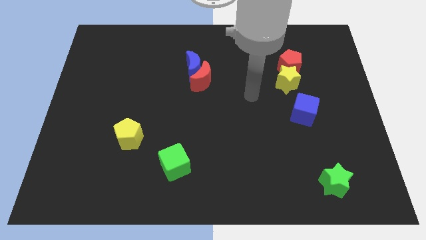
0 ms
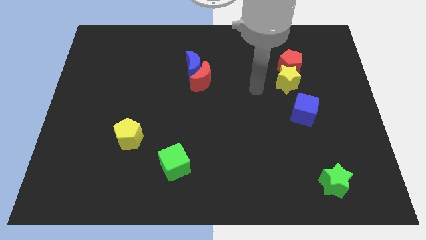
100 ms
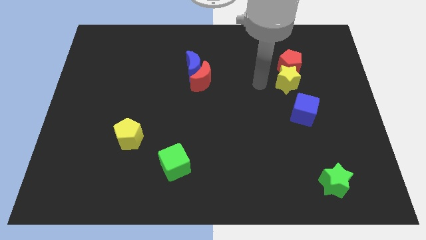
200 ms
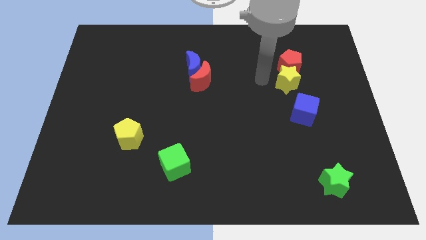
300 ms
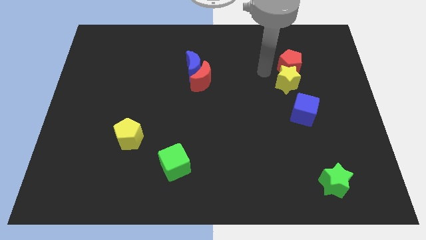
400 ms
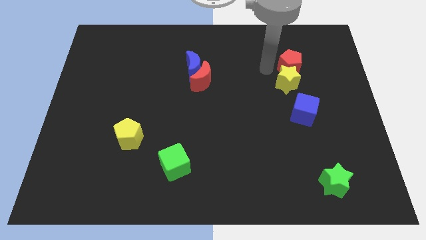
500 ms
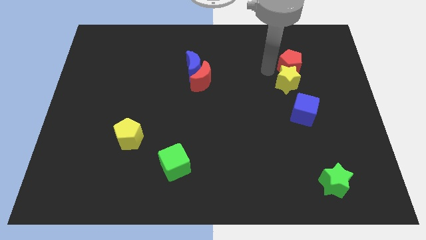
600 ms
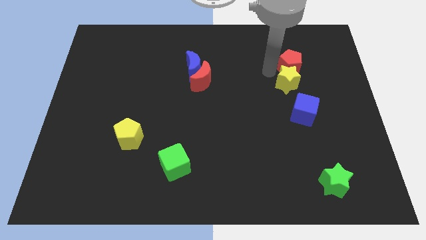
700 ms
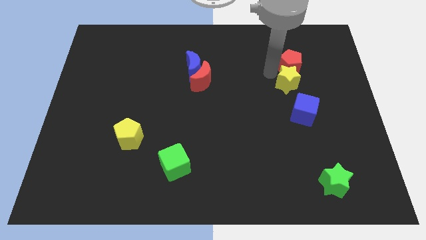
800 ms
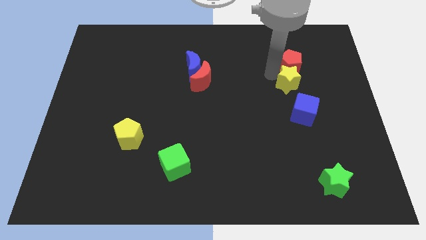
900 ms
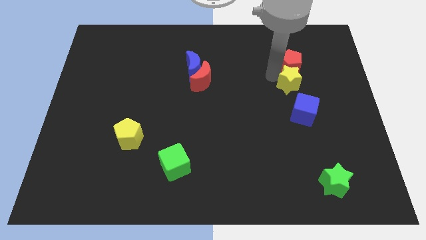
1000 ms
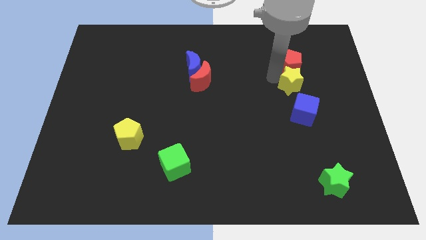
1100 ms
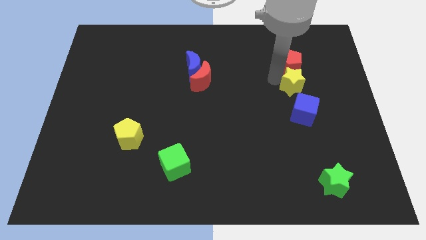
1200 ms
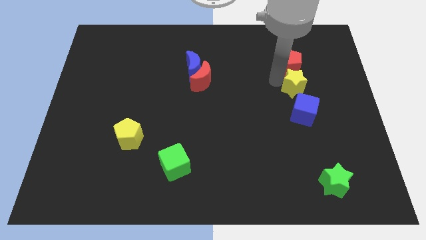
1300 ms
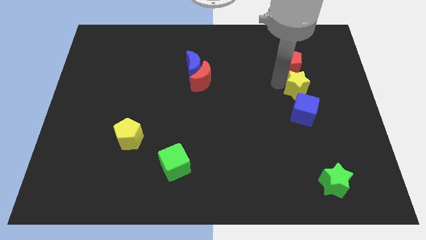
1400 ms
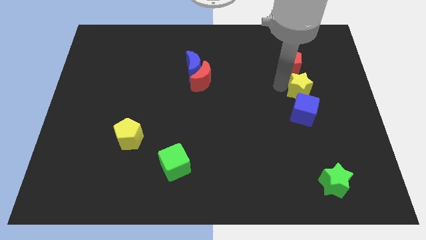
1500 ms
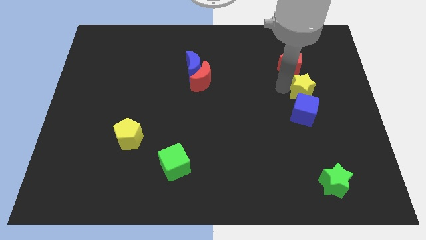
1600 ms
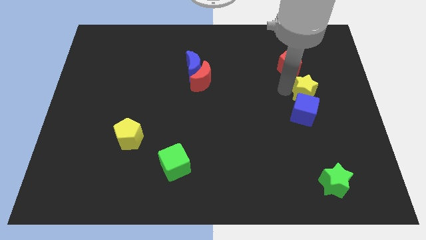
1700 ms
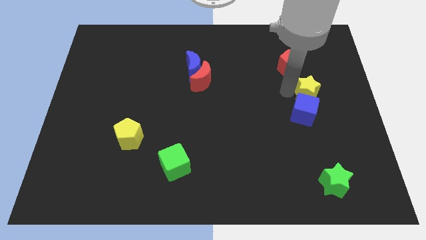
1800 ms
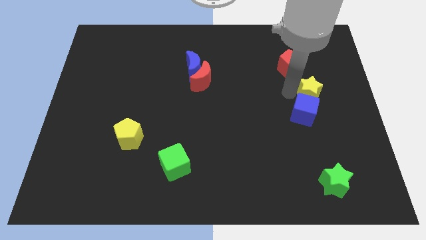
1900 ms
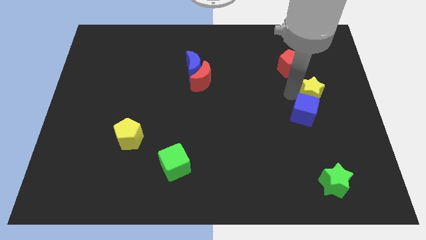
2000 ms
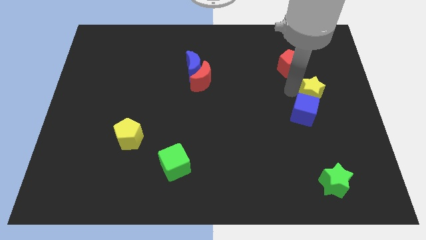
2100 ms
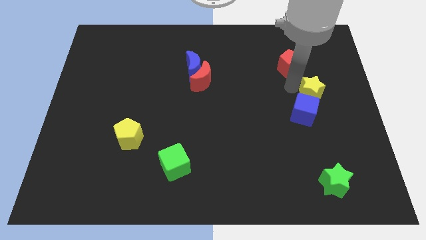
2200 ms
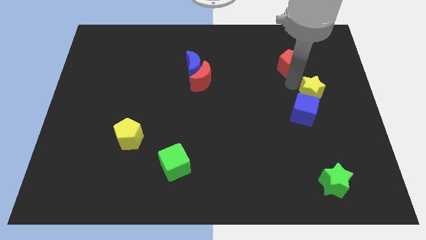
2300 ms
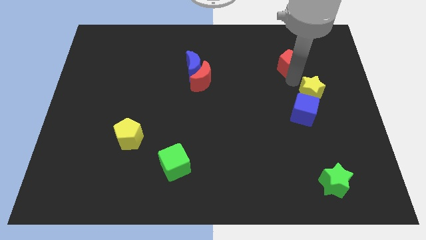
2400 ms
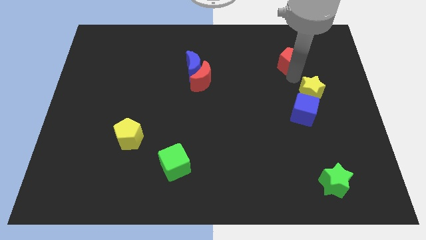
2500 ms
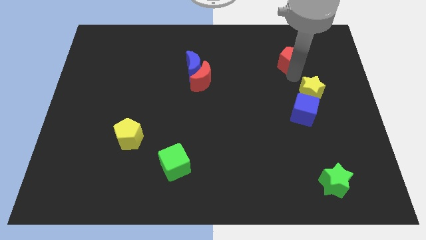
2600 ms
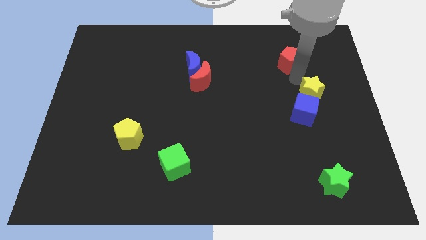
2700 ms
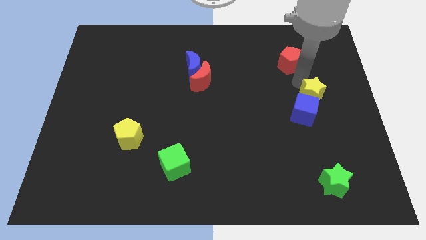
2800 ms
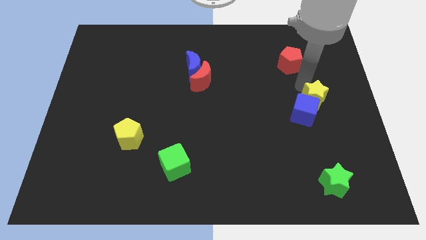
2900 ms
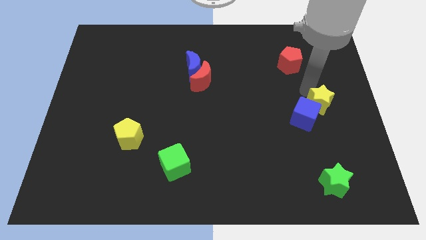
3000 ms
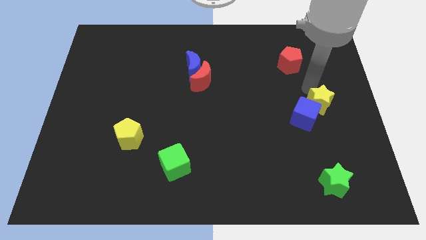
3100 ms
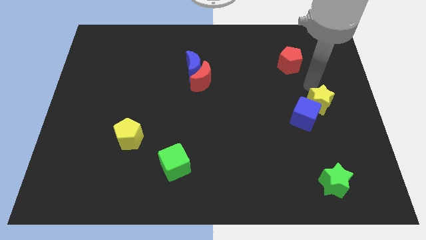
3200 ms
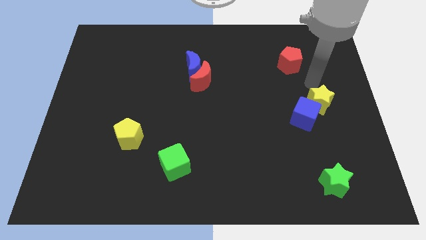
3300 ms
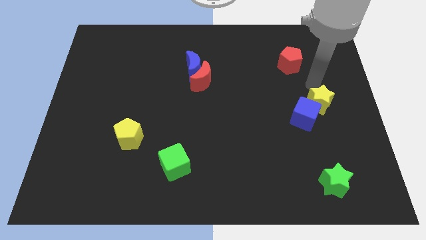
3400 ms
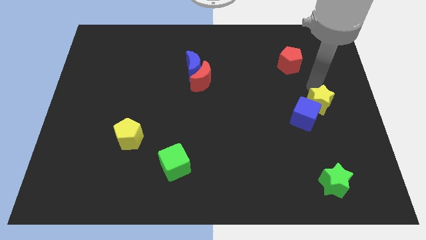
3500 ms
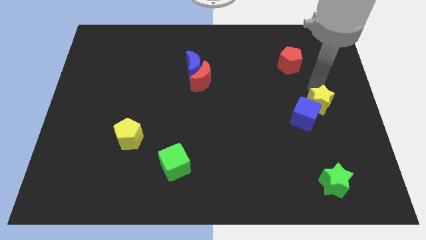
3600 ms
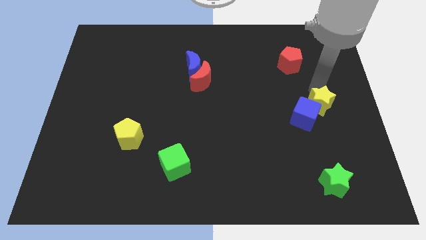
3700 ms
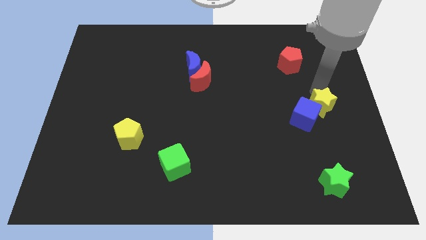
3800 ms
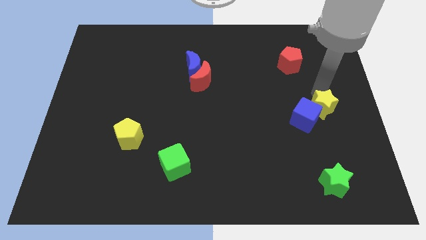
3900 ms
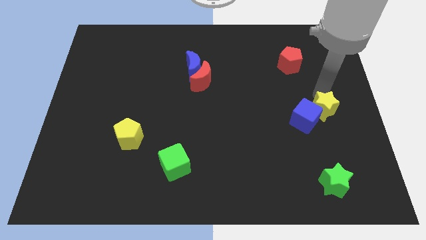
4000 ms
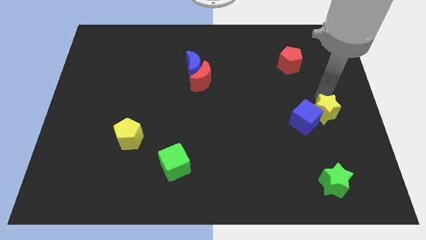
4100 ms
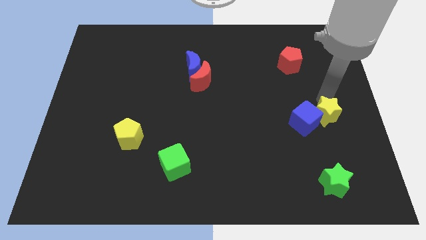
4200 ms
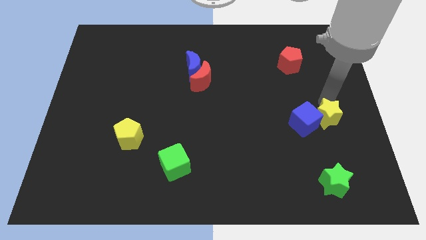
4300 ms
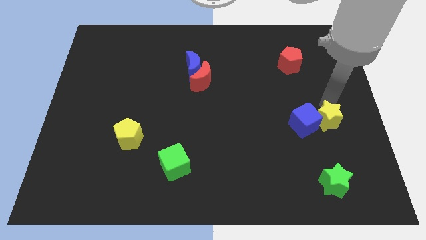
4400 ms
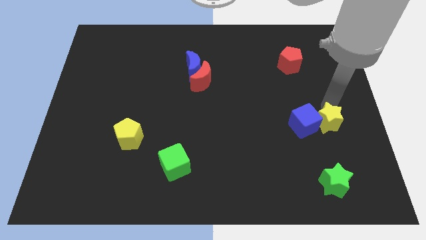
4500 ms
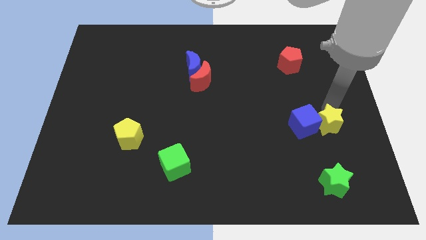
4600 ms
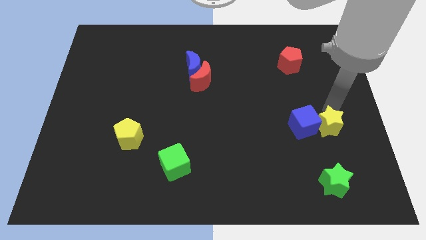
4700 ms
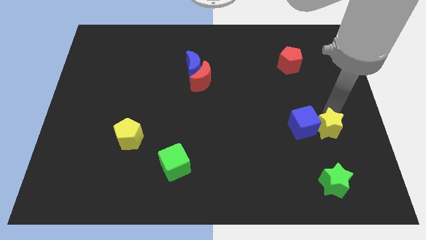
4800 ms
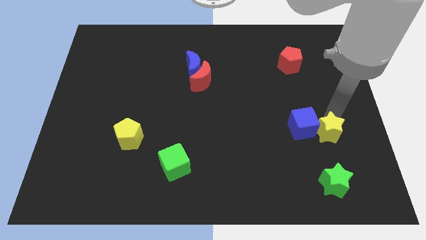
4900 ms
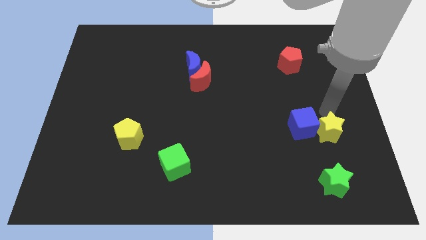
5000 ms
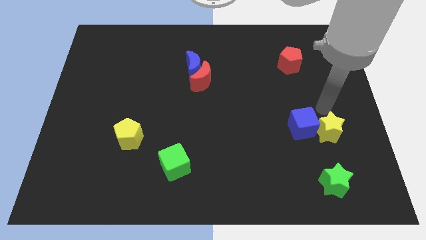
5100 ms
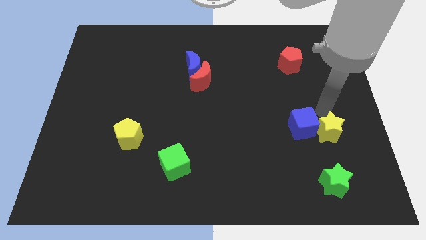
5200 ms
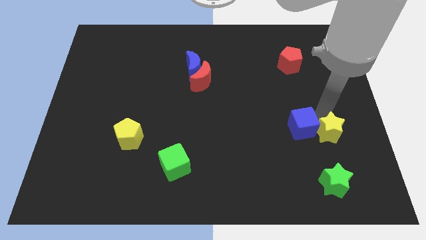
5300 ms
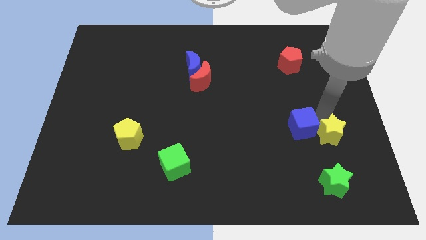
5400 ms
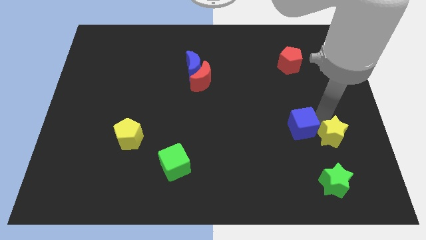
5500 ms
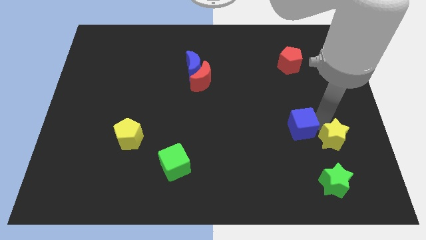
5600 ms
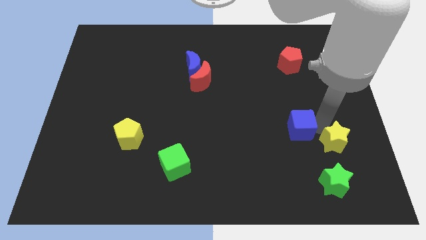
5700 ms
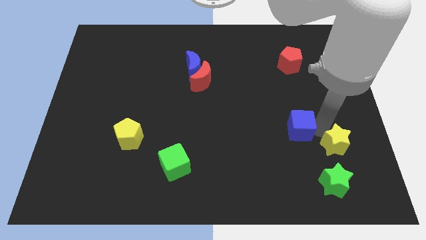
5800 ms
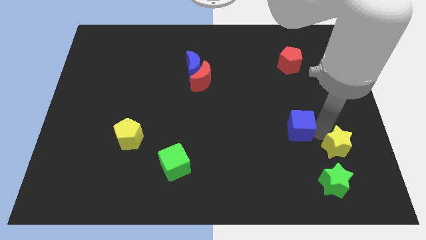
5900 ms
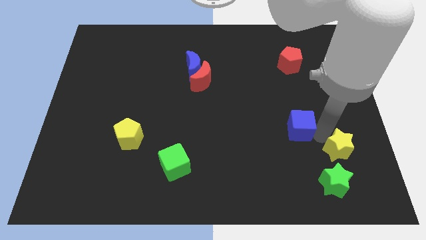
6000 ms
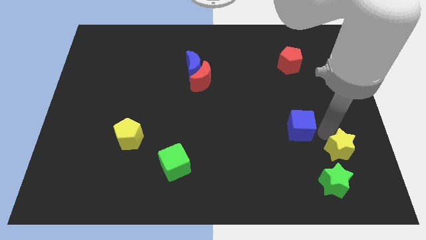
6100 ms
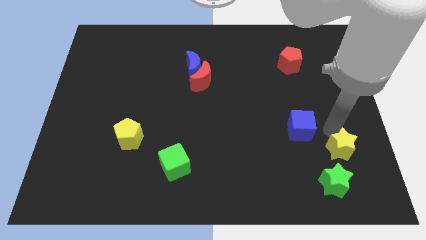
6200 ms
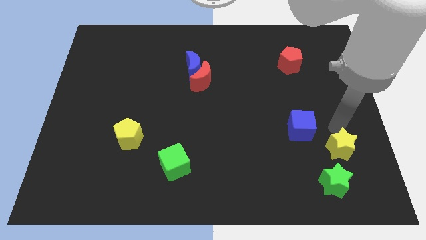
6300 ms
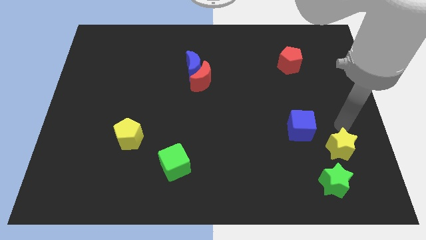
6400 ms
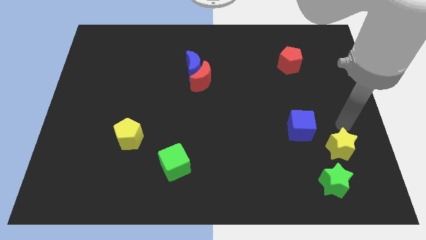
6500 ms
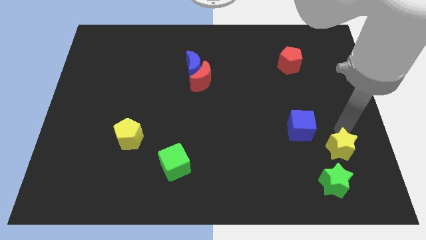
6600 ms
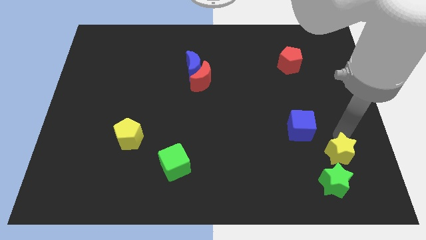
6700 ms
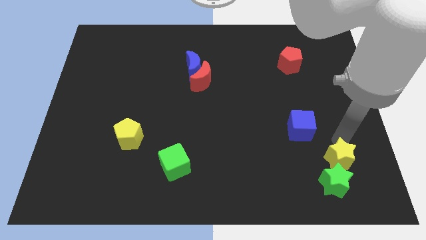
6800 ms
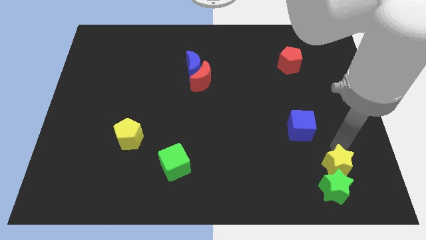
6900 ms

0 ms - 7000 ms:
slide the yellow star close to the green star
